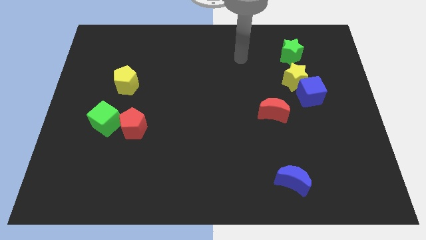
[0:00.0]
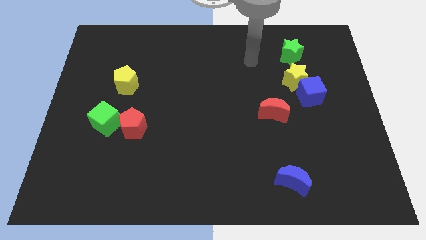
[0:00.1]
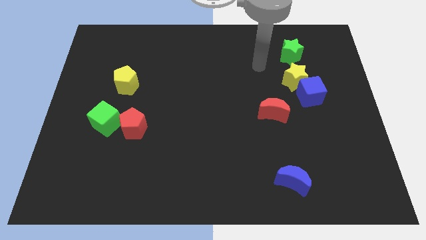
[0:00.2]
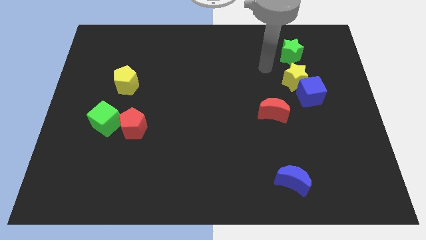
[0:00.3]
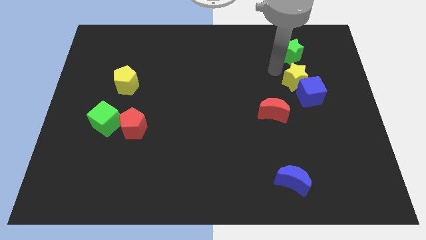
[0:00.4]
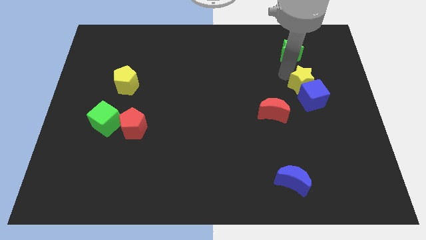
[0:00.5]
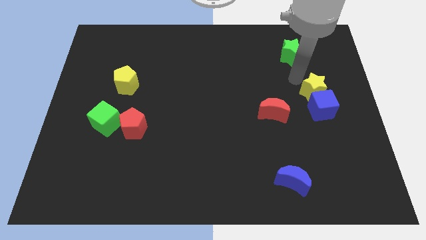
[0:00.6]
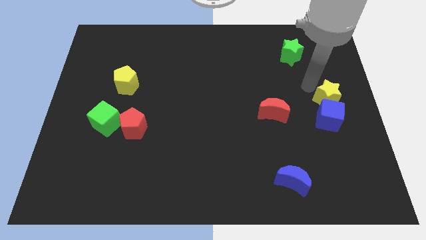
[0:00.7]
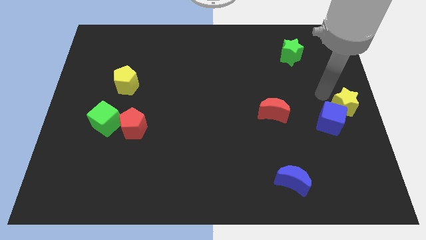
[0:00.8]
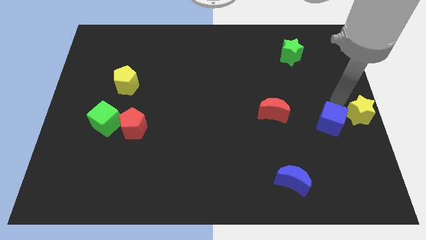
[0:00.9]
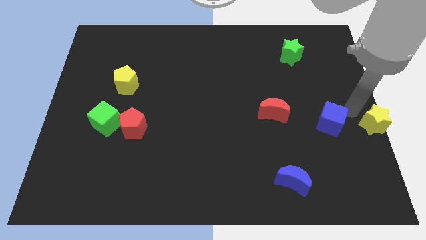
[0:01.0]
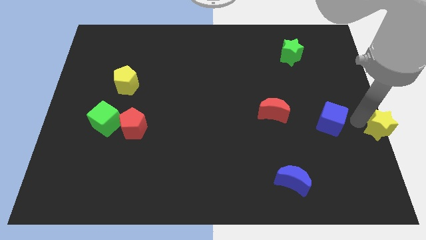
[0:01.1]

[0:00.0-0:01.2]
separate the blue cube from the yellow star

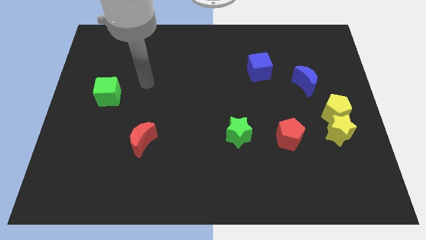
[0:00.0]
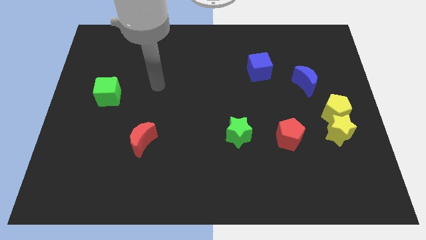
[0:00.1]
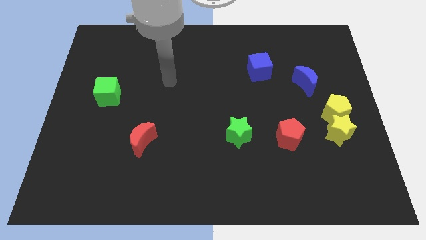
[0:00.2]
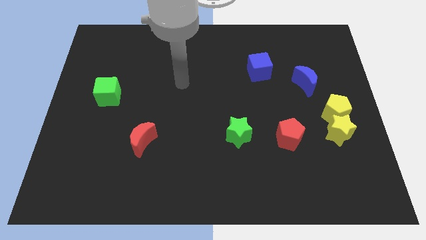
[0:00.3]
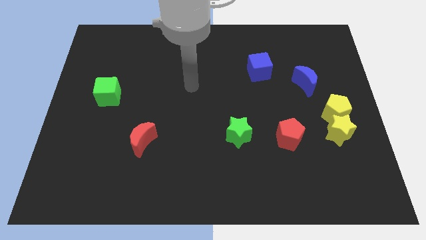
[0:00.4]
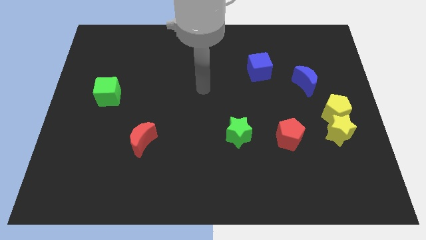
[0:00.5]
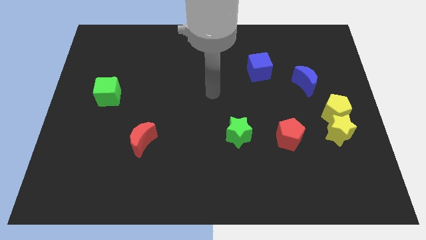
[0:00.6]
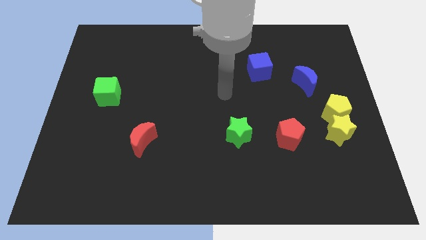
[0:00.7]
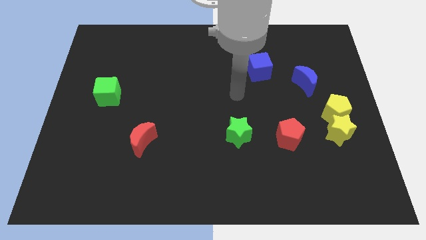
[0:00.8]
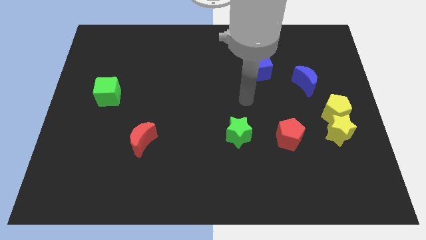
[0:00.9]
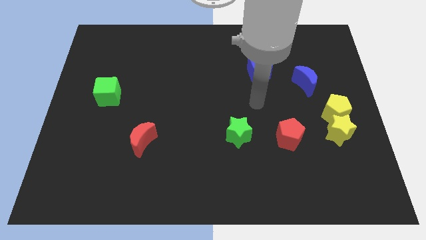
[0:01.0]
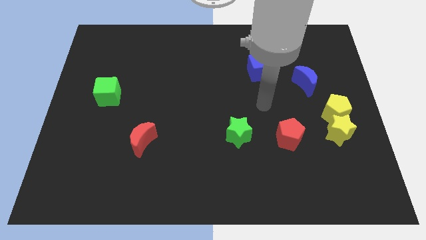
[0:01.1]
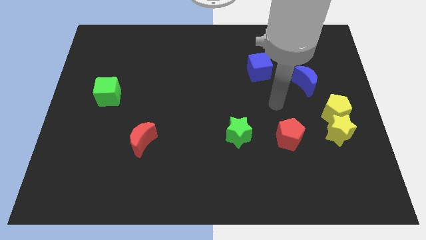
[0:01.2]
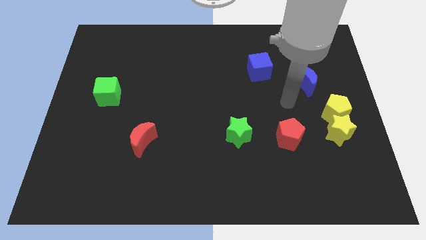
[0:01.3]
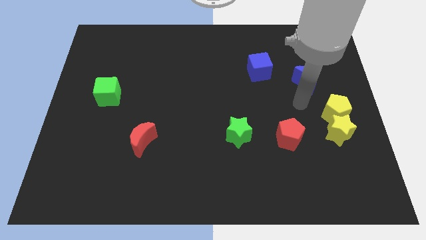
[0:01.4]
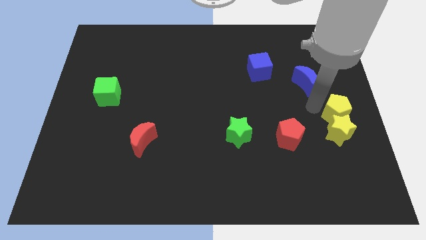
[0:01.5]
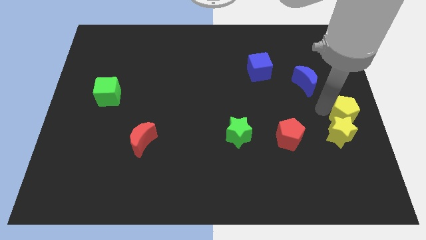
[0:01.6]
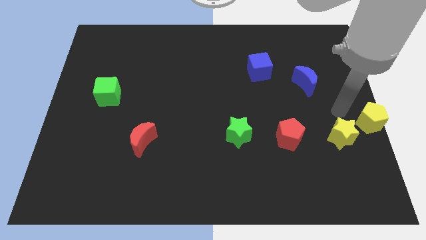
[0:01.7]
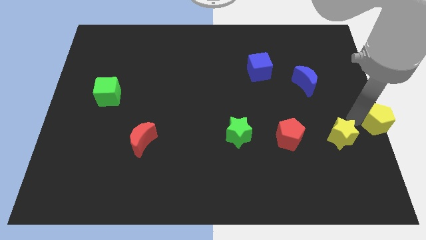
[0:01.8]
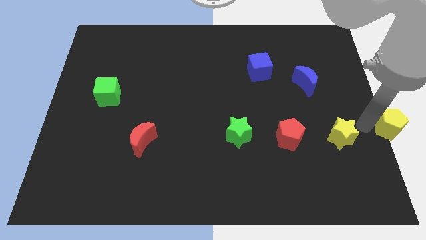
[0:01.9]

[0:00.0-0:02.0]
pull the yellow star apart from the yellow pentagon

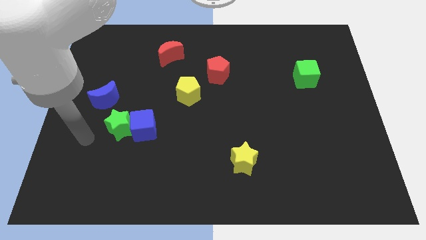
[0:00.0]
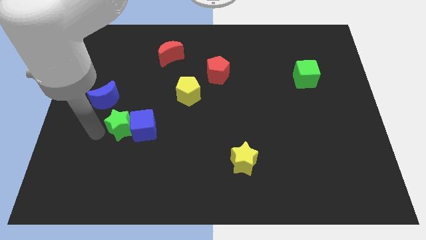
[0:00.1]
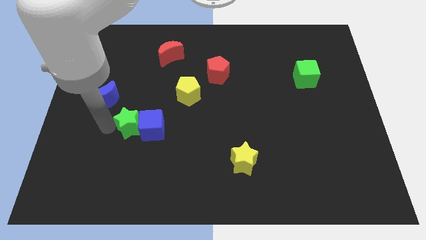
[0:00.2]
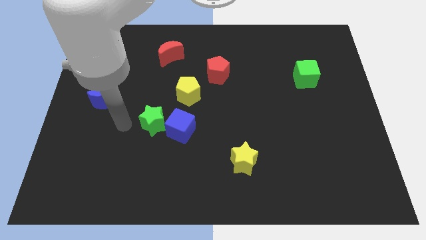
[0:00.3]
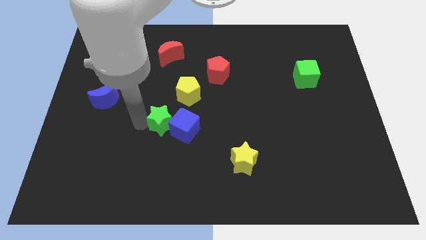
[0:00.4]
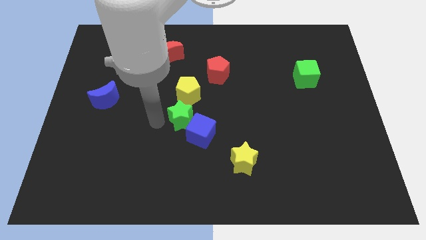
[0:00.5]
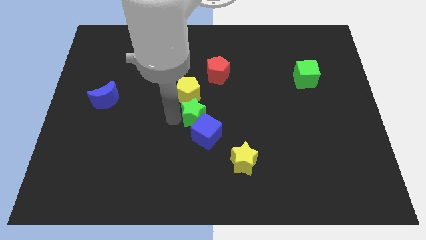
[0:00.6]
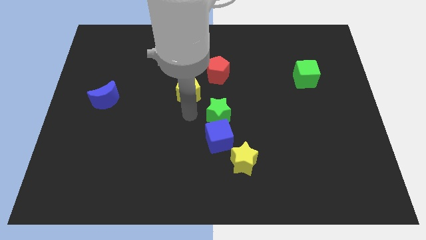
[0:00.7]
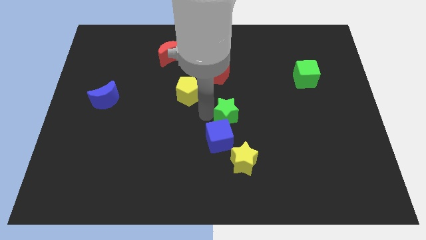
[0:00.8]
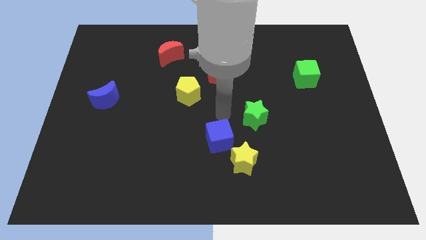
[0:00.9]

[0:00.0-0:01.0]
pull the blue cube apart from the green star

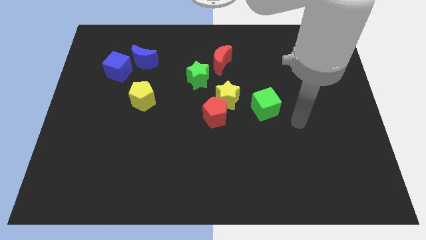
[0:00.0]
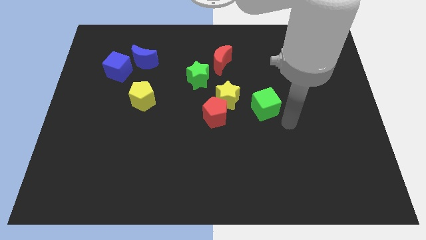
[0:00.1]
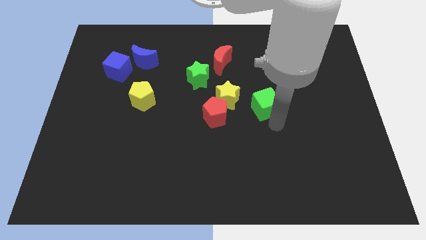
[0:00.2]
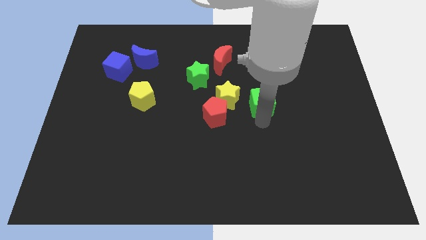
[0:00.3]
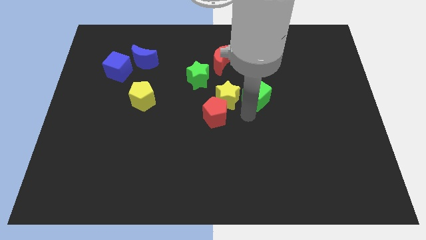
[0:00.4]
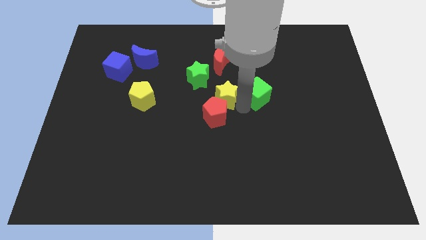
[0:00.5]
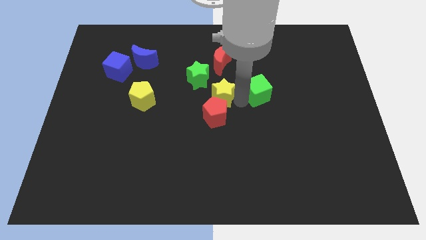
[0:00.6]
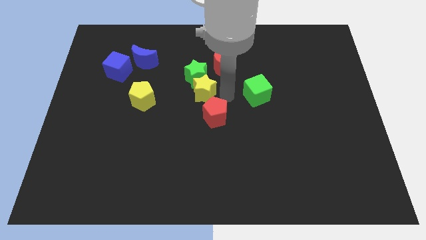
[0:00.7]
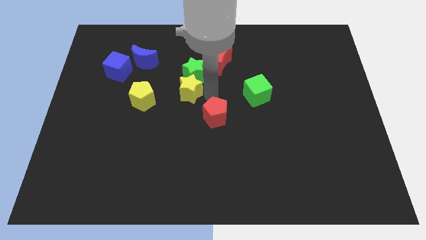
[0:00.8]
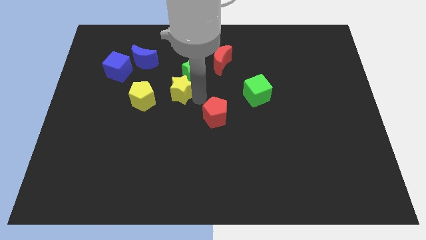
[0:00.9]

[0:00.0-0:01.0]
pull the red pentagon apart from the yellow star

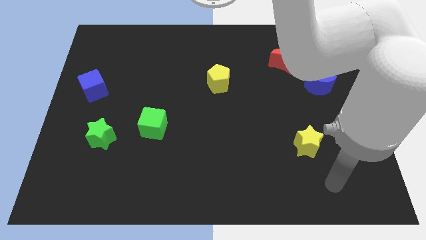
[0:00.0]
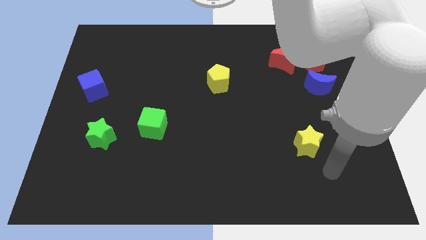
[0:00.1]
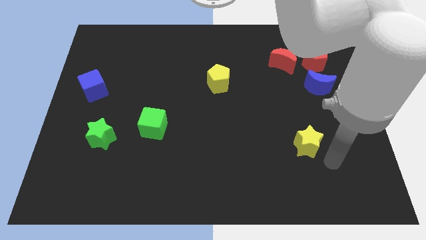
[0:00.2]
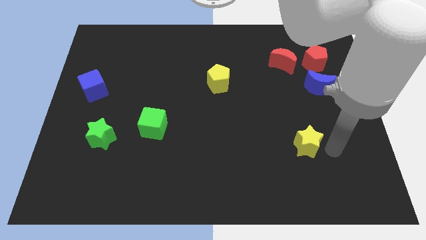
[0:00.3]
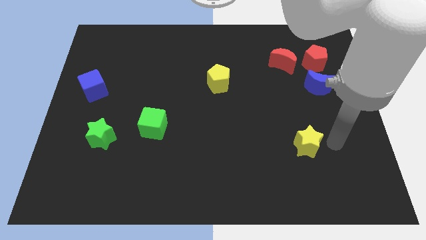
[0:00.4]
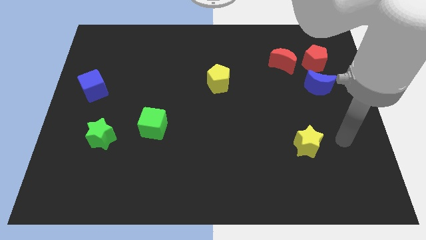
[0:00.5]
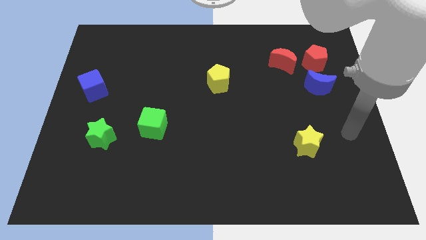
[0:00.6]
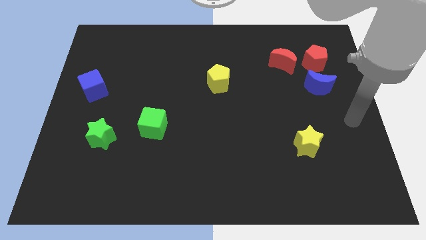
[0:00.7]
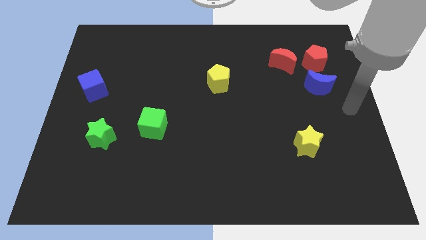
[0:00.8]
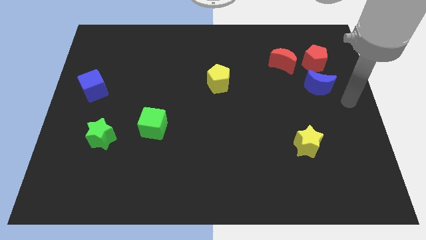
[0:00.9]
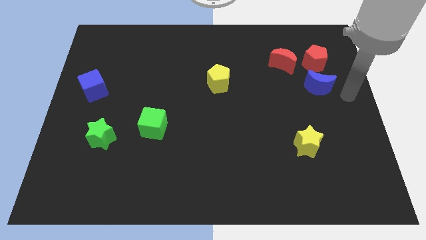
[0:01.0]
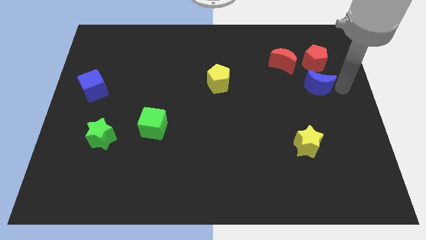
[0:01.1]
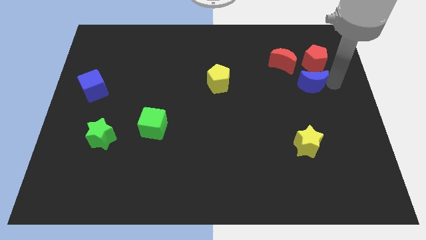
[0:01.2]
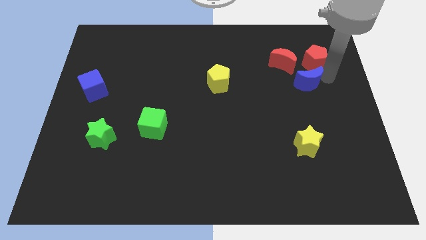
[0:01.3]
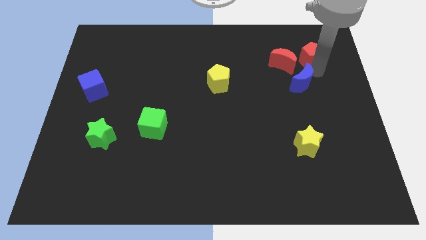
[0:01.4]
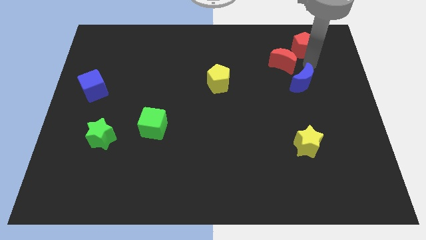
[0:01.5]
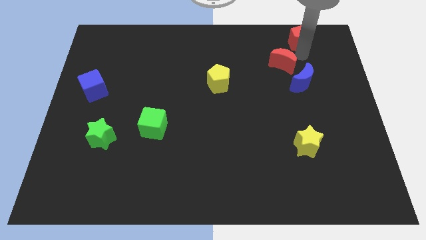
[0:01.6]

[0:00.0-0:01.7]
separate the red moon from the red pentagon

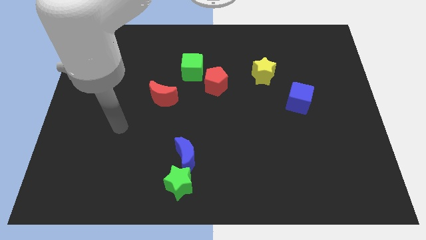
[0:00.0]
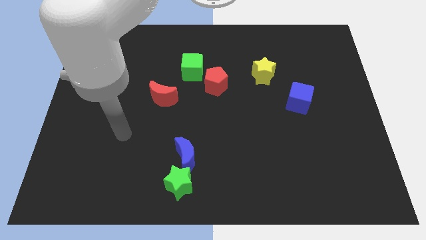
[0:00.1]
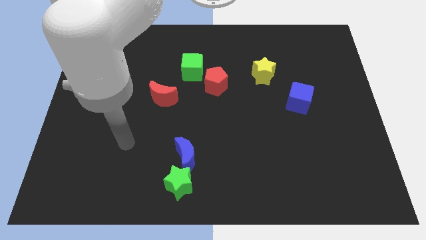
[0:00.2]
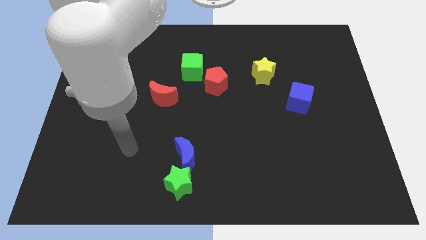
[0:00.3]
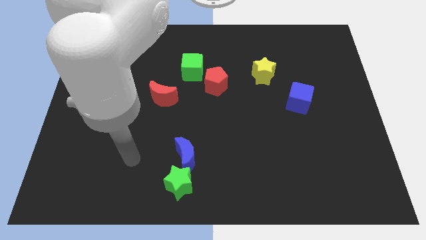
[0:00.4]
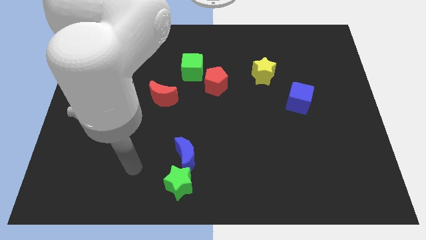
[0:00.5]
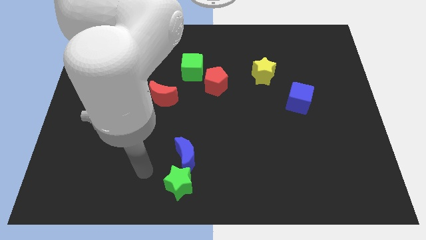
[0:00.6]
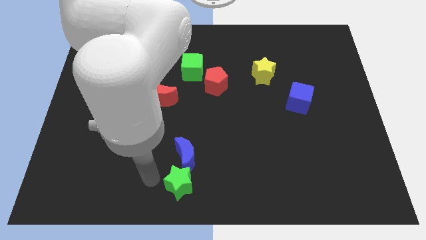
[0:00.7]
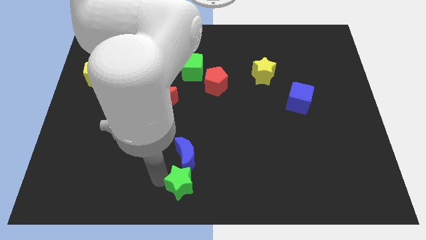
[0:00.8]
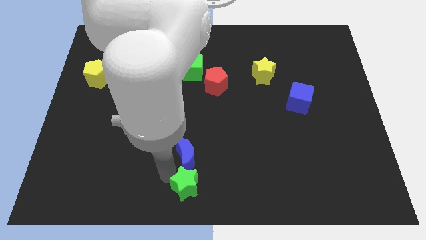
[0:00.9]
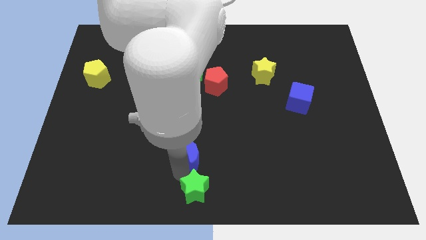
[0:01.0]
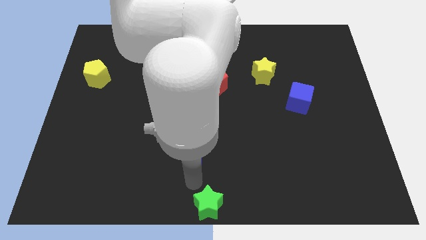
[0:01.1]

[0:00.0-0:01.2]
separate the blue moon from the green star

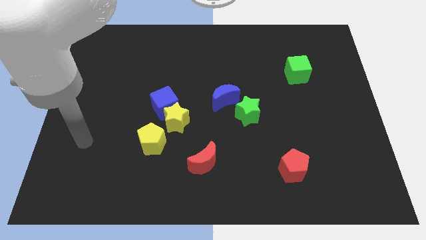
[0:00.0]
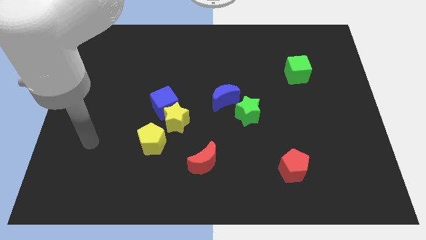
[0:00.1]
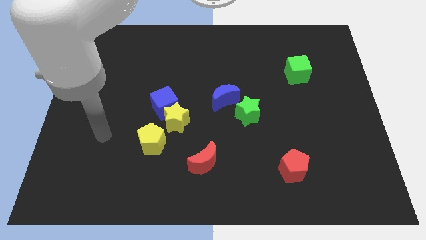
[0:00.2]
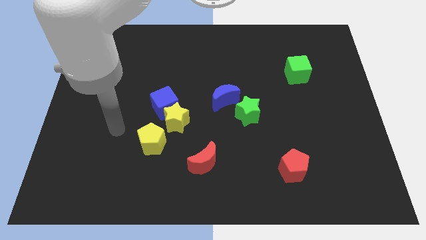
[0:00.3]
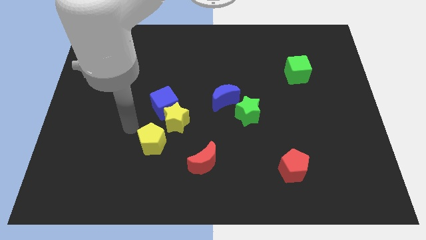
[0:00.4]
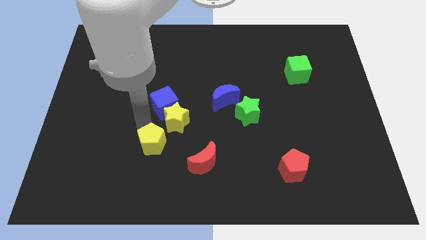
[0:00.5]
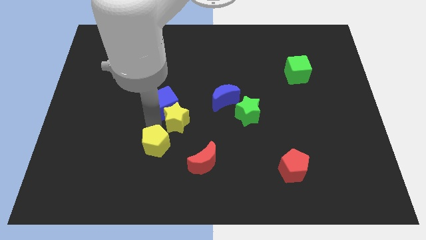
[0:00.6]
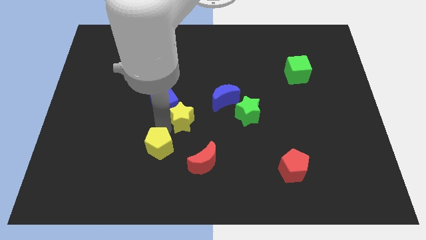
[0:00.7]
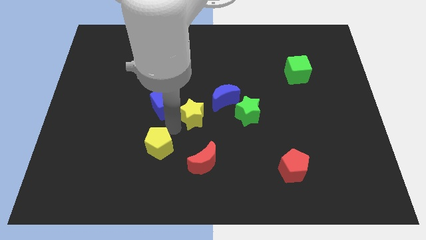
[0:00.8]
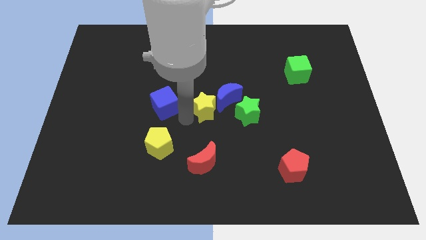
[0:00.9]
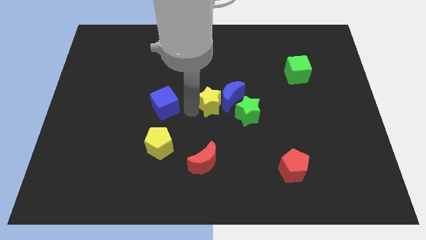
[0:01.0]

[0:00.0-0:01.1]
move the blue cube away from the yellow star
